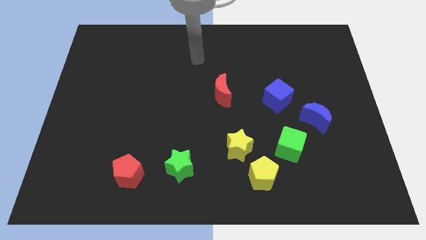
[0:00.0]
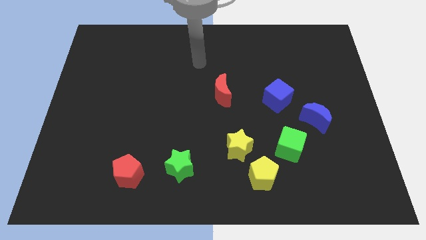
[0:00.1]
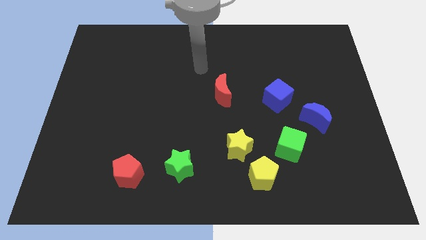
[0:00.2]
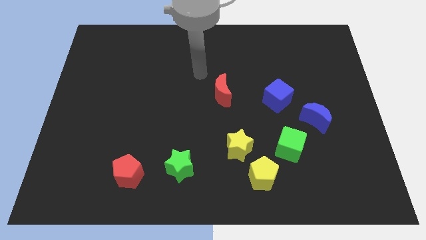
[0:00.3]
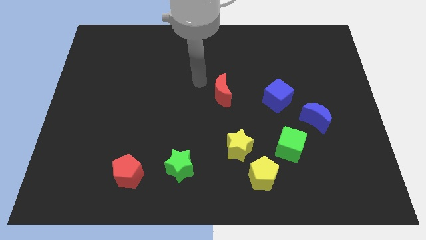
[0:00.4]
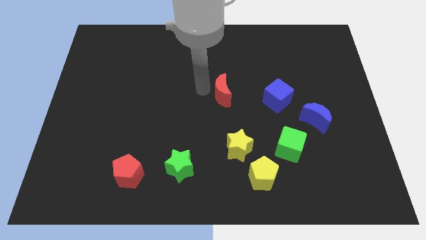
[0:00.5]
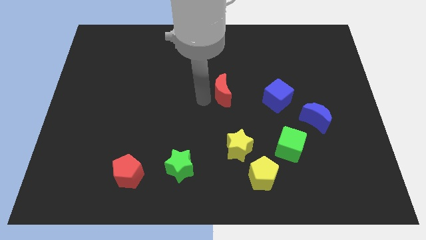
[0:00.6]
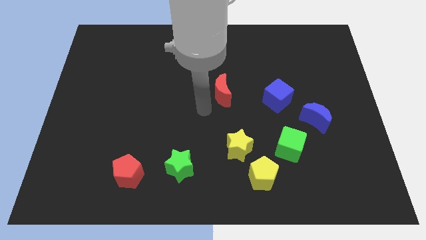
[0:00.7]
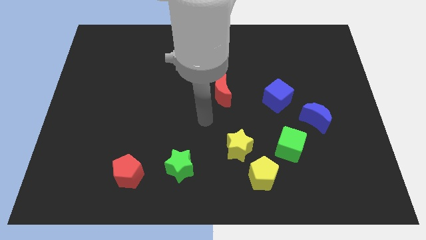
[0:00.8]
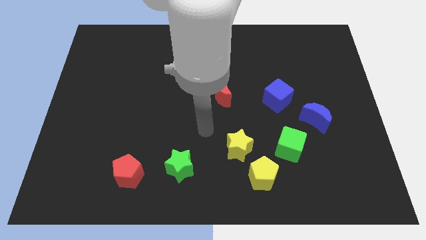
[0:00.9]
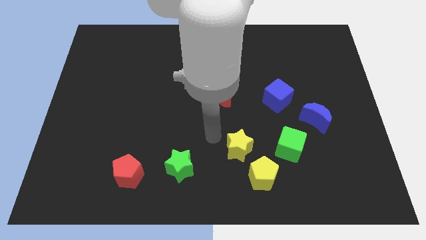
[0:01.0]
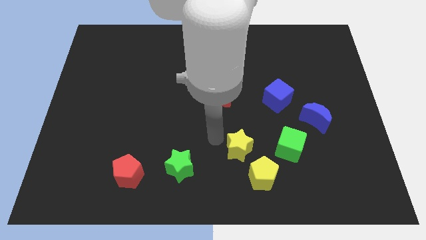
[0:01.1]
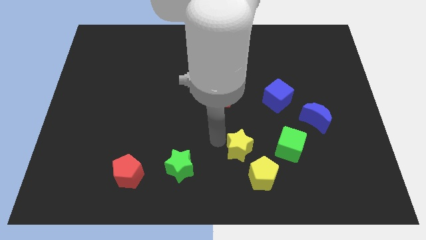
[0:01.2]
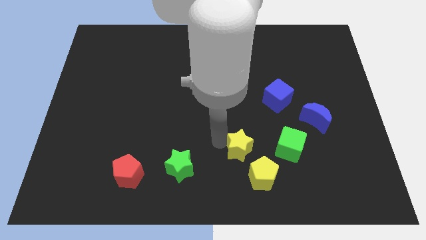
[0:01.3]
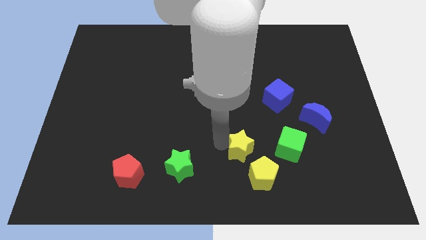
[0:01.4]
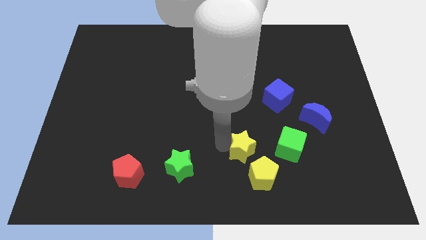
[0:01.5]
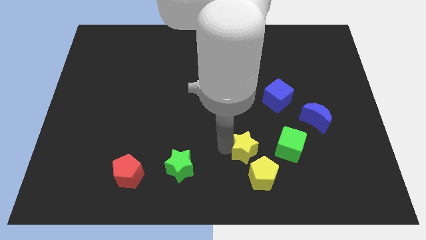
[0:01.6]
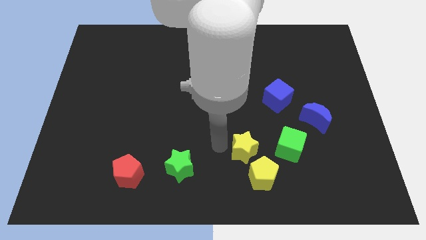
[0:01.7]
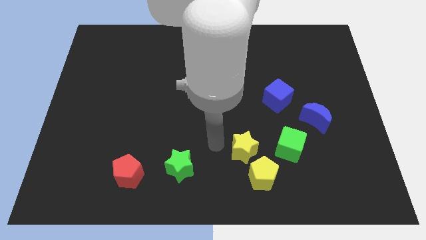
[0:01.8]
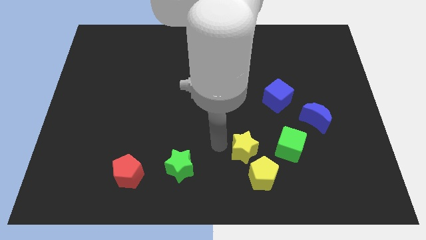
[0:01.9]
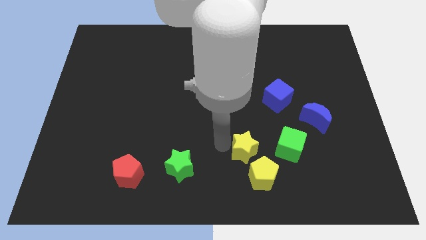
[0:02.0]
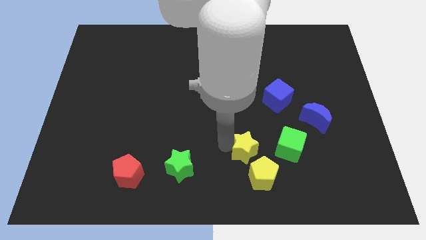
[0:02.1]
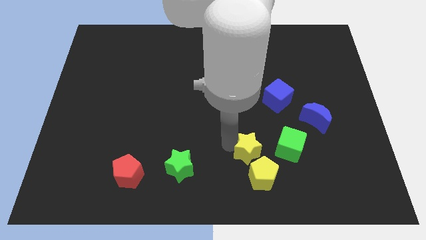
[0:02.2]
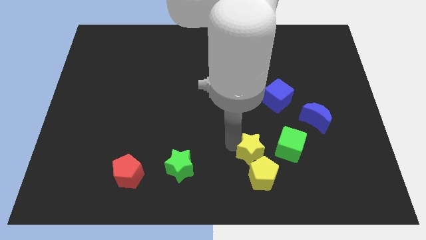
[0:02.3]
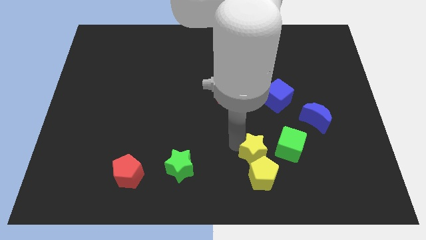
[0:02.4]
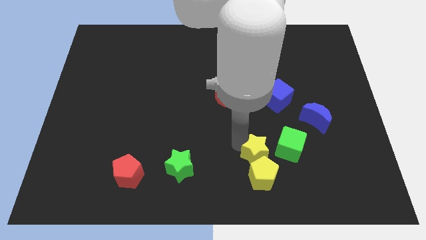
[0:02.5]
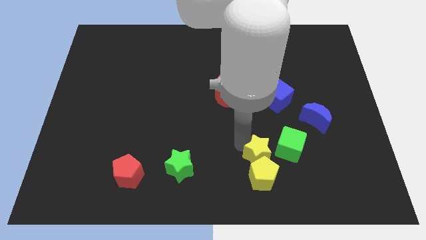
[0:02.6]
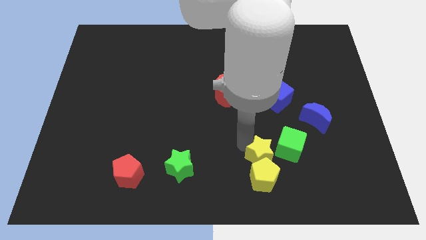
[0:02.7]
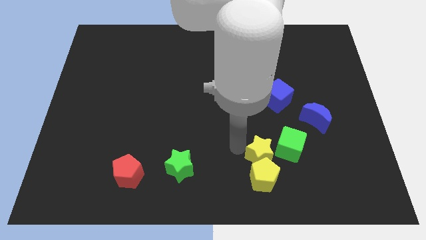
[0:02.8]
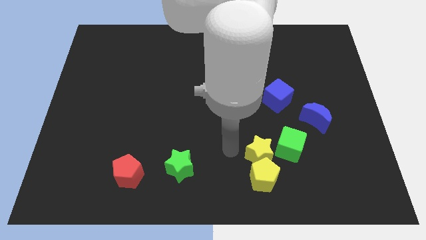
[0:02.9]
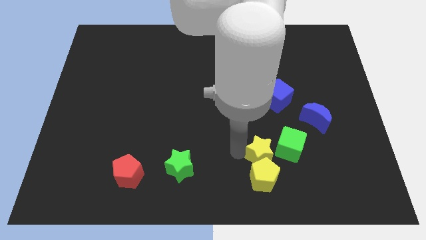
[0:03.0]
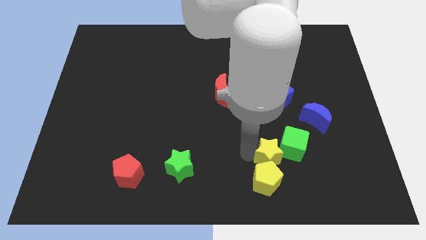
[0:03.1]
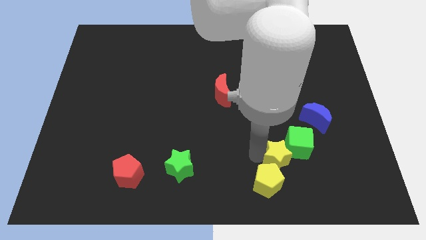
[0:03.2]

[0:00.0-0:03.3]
slide the yellow star right a little

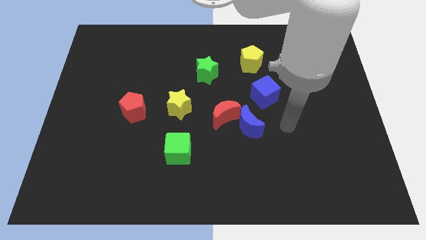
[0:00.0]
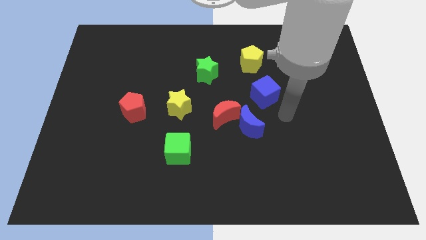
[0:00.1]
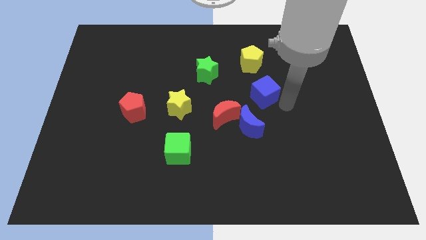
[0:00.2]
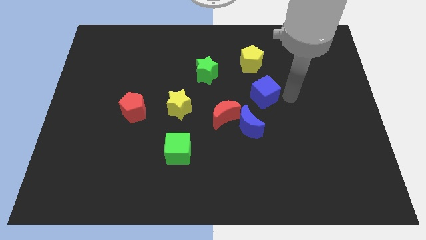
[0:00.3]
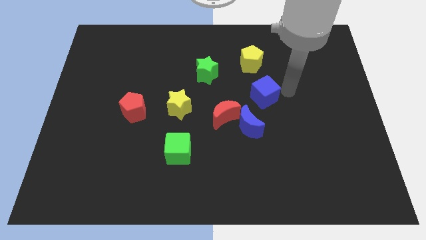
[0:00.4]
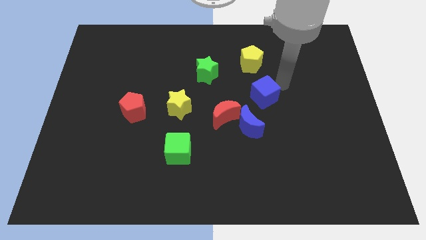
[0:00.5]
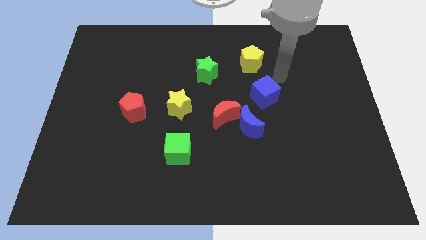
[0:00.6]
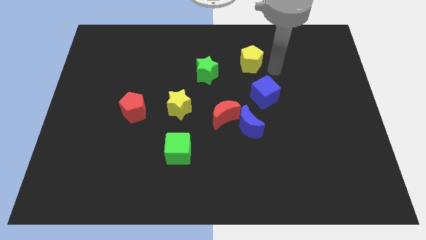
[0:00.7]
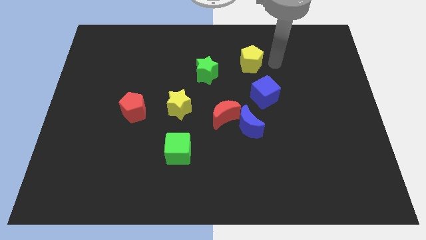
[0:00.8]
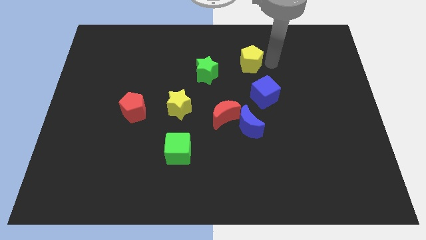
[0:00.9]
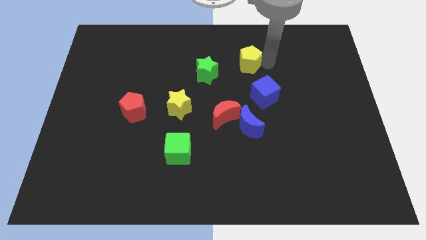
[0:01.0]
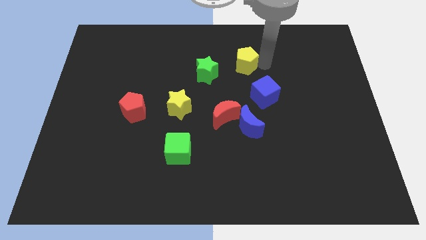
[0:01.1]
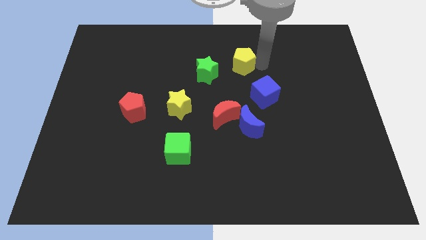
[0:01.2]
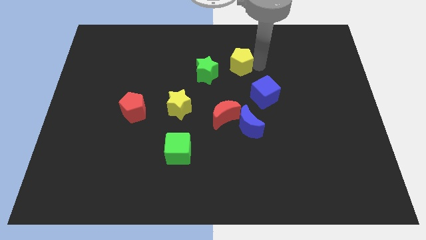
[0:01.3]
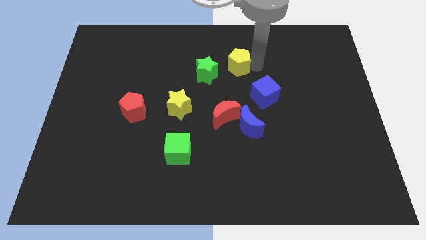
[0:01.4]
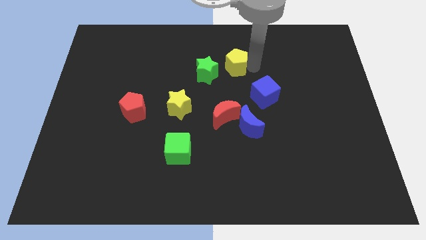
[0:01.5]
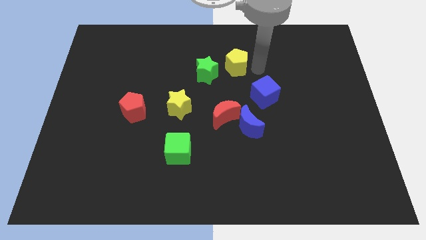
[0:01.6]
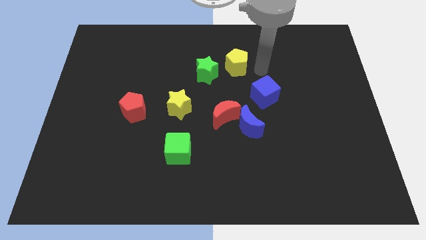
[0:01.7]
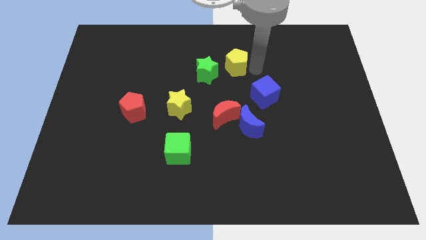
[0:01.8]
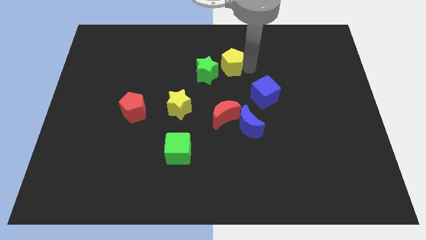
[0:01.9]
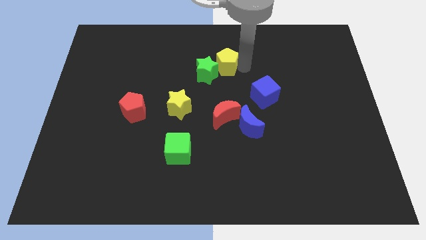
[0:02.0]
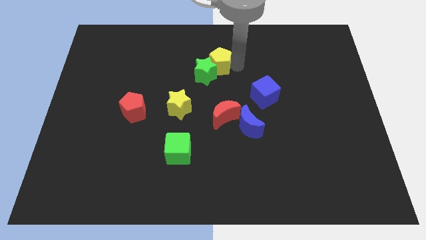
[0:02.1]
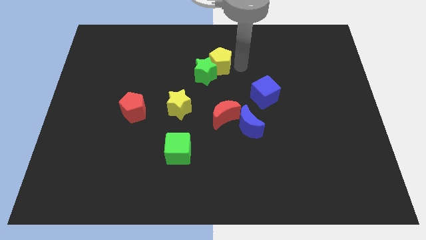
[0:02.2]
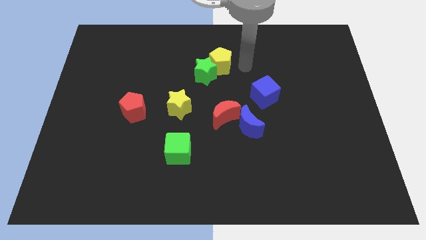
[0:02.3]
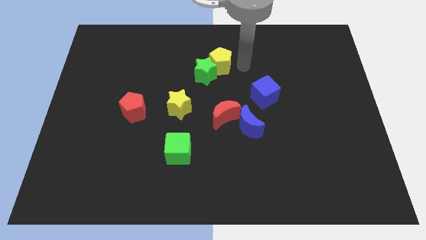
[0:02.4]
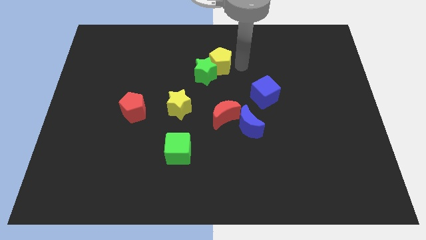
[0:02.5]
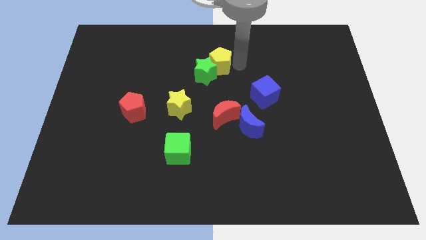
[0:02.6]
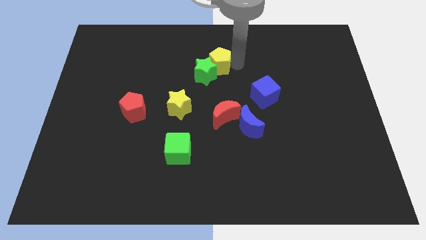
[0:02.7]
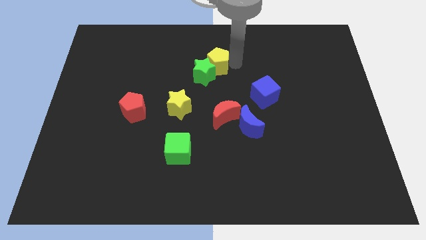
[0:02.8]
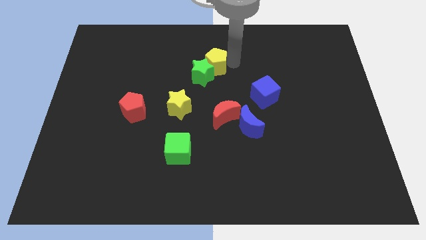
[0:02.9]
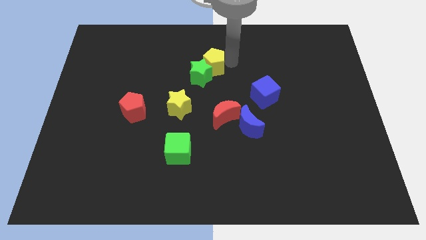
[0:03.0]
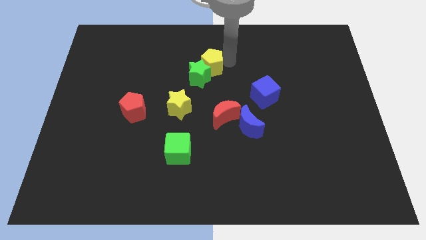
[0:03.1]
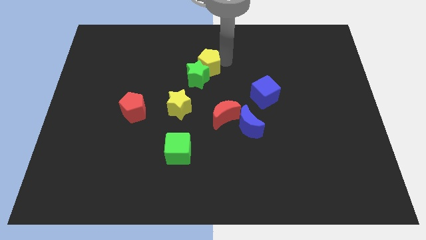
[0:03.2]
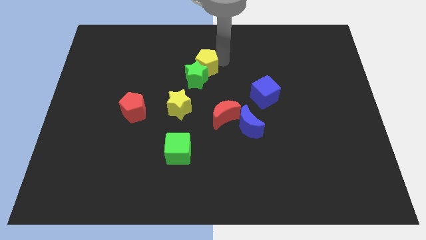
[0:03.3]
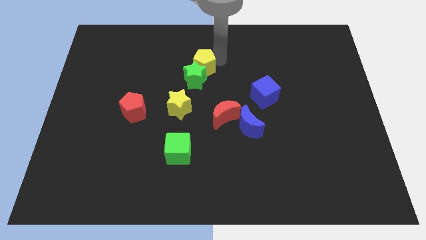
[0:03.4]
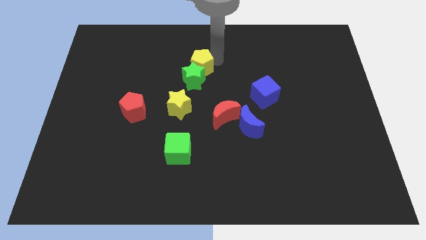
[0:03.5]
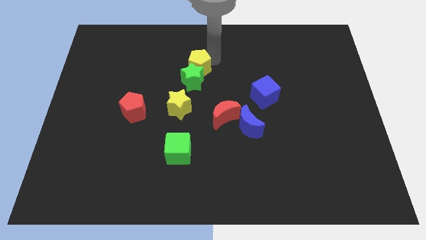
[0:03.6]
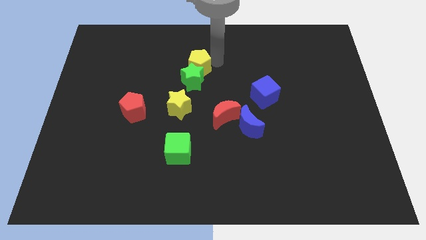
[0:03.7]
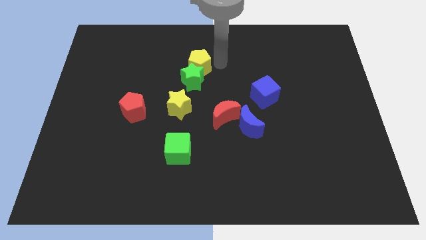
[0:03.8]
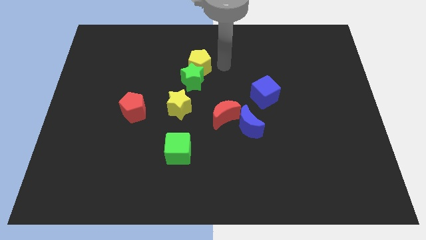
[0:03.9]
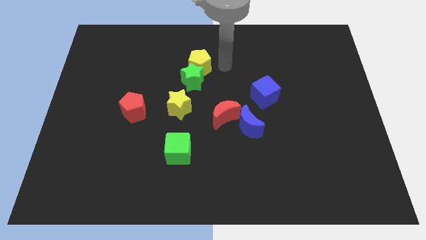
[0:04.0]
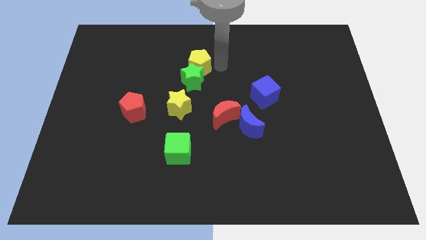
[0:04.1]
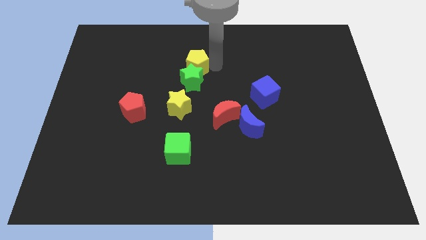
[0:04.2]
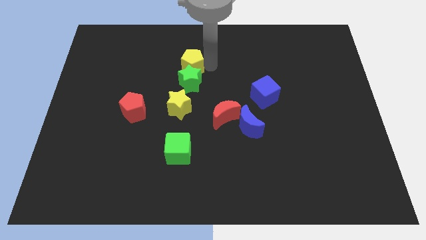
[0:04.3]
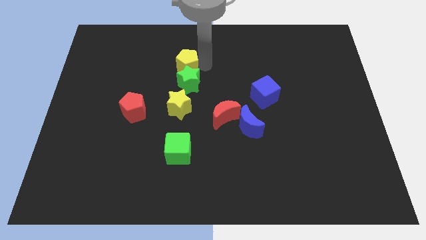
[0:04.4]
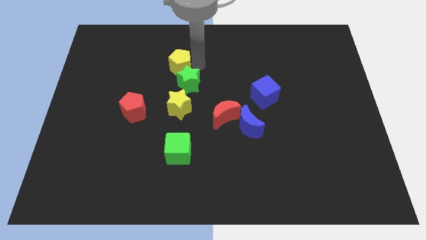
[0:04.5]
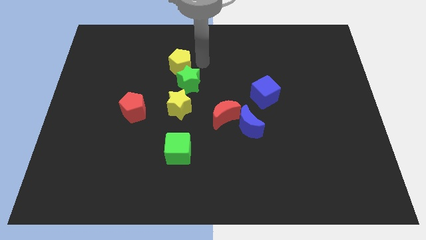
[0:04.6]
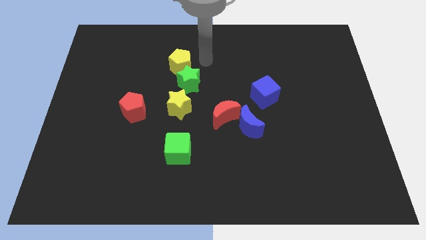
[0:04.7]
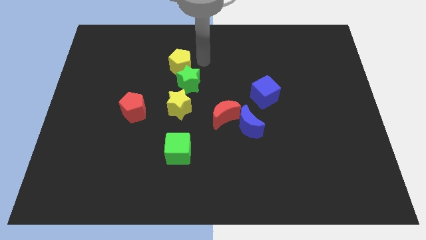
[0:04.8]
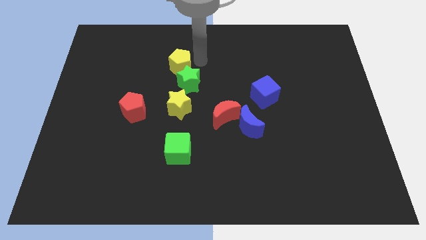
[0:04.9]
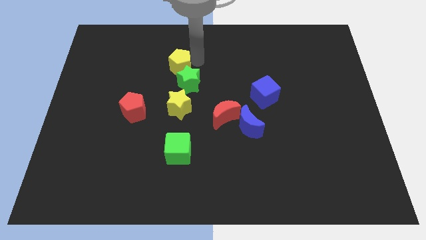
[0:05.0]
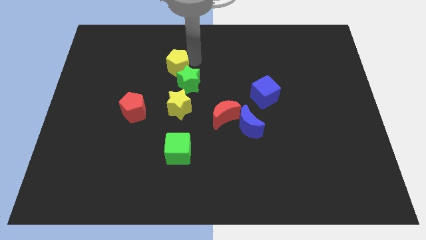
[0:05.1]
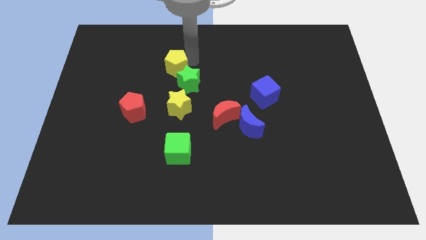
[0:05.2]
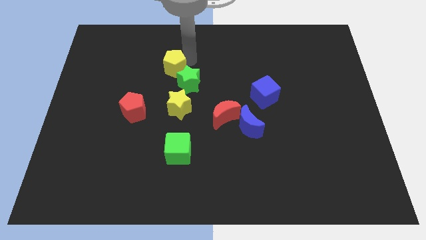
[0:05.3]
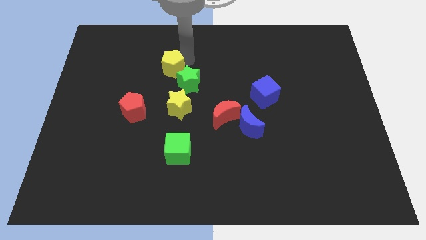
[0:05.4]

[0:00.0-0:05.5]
slide the yellow pentagon left
